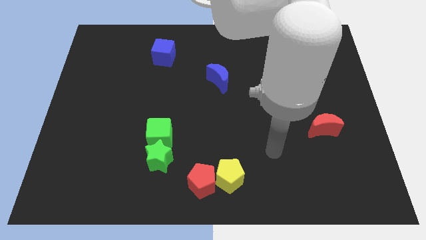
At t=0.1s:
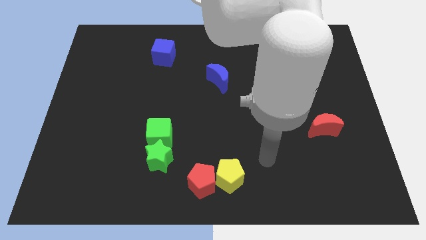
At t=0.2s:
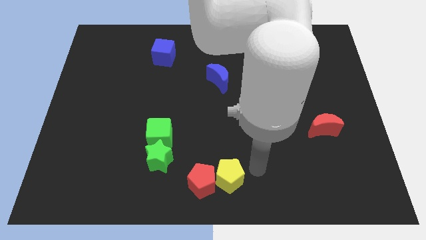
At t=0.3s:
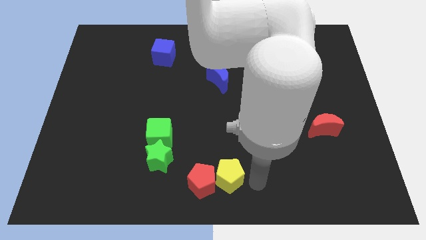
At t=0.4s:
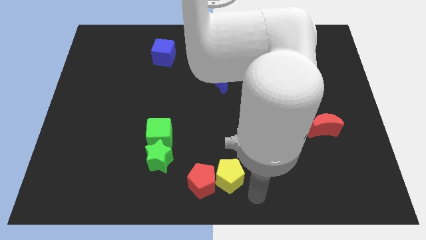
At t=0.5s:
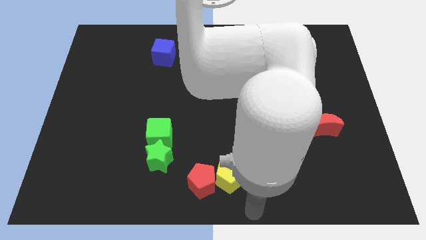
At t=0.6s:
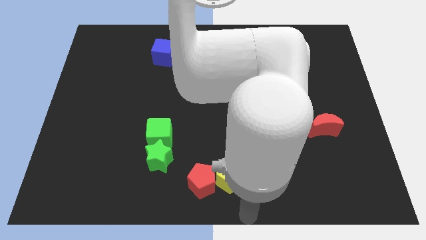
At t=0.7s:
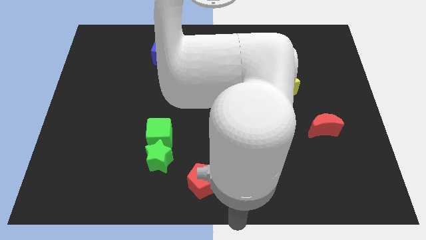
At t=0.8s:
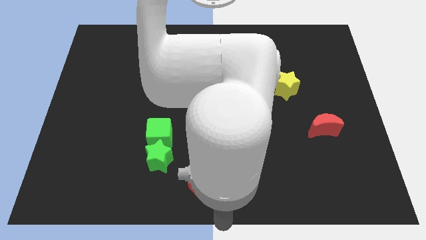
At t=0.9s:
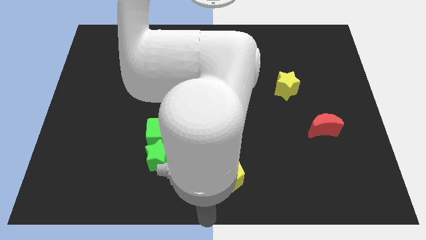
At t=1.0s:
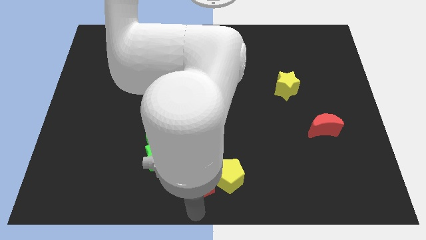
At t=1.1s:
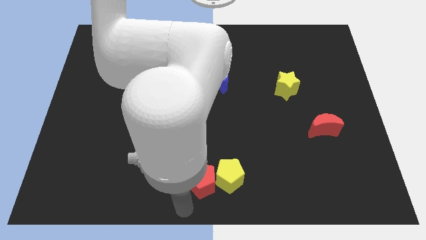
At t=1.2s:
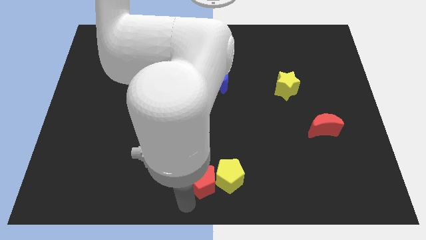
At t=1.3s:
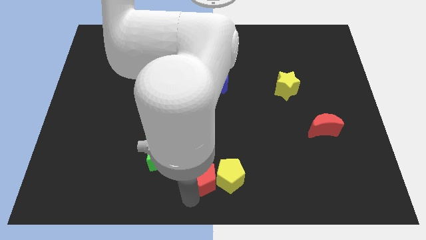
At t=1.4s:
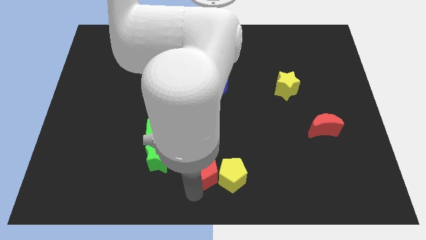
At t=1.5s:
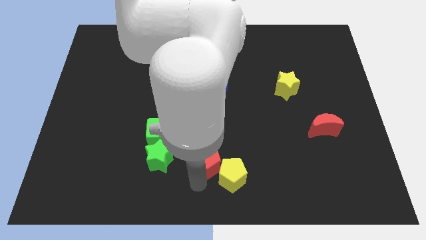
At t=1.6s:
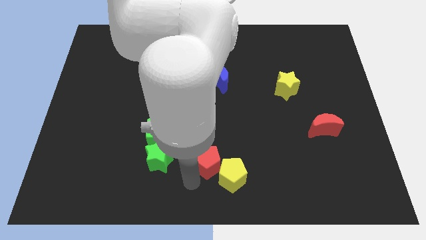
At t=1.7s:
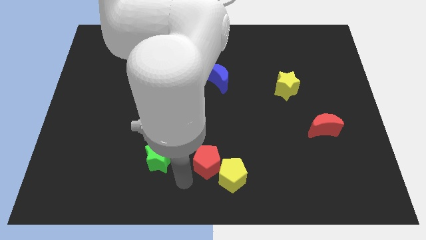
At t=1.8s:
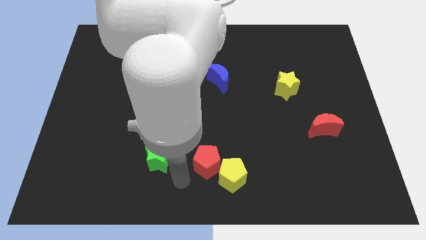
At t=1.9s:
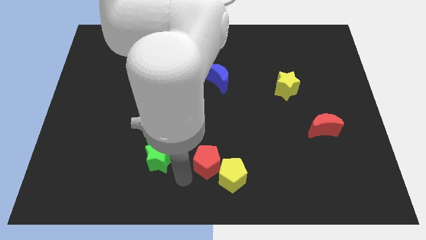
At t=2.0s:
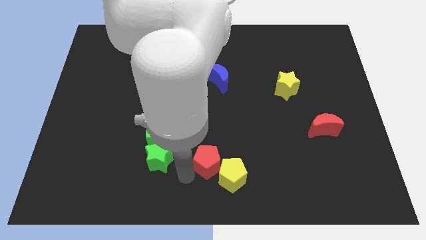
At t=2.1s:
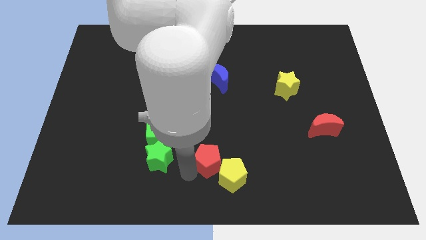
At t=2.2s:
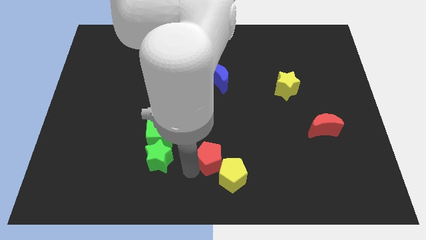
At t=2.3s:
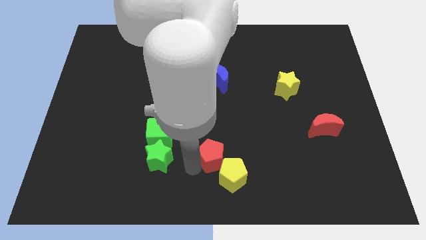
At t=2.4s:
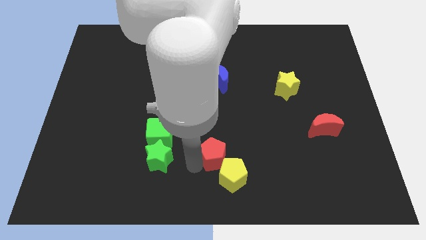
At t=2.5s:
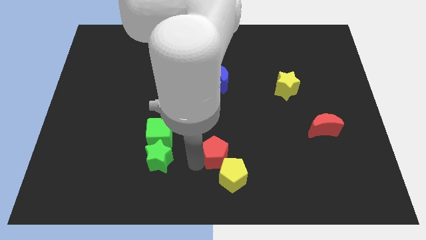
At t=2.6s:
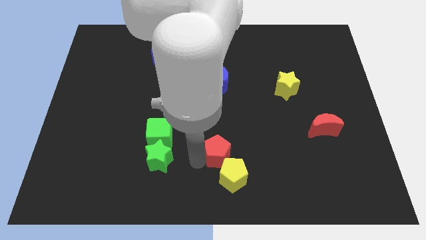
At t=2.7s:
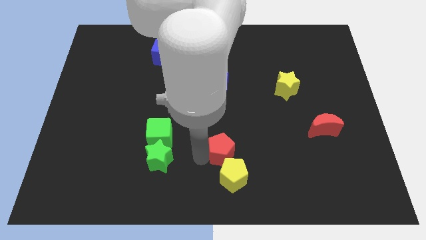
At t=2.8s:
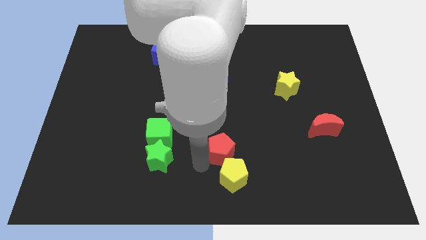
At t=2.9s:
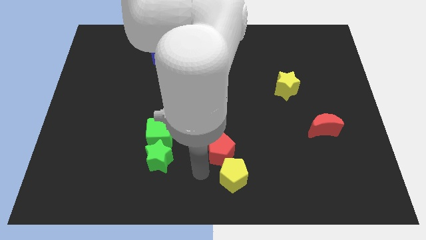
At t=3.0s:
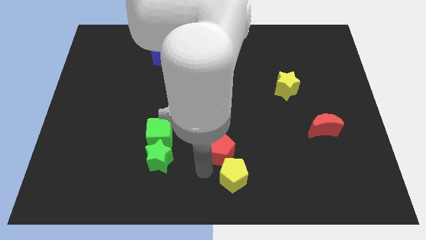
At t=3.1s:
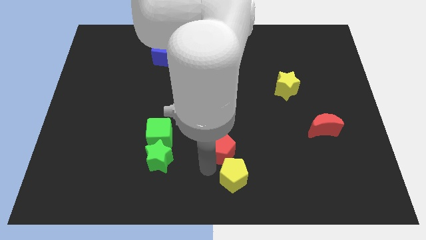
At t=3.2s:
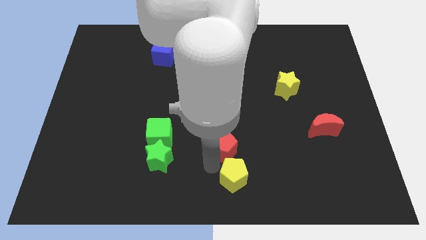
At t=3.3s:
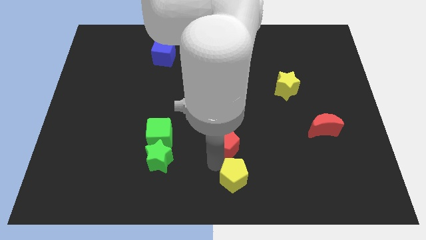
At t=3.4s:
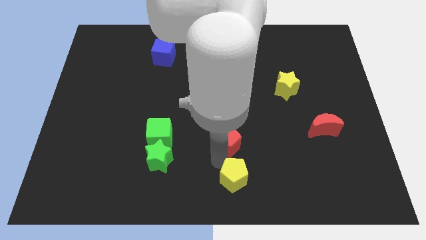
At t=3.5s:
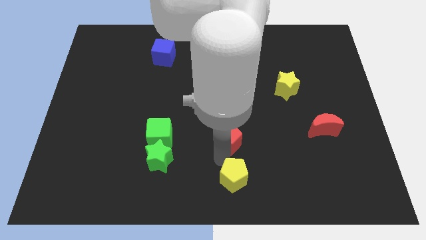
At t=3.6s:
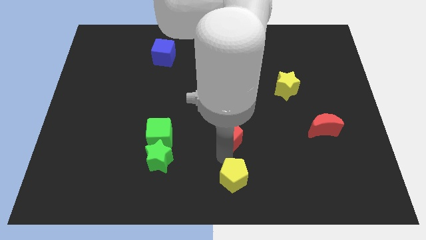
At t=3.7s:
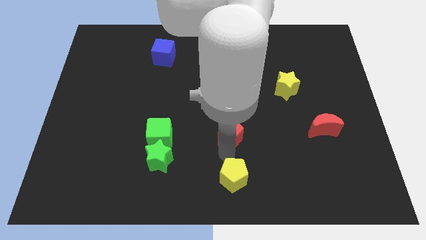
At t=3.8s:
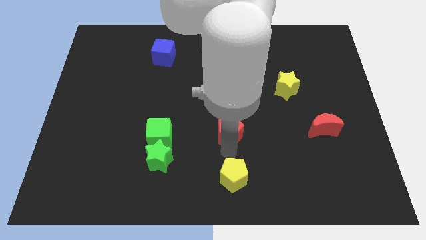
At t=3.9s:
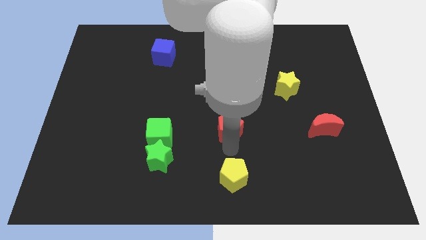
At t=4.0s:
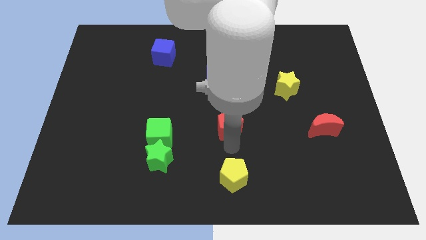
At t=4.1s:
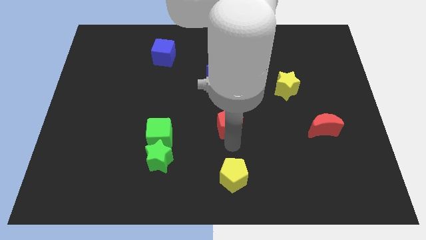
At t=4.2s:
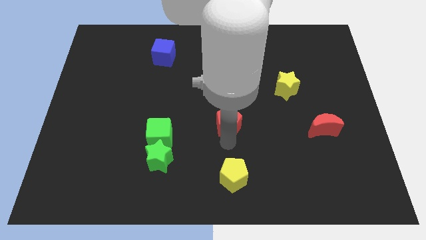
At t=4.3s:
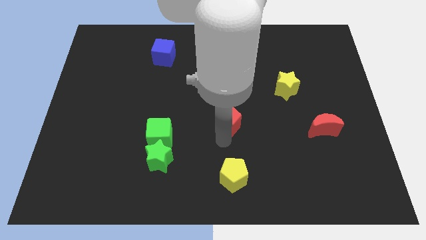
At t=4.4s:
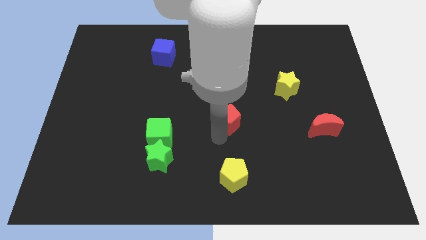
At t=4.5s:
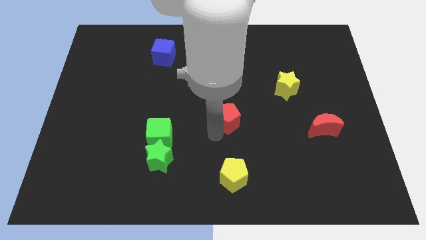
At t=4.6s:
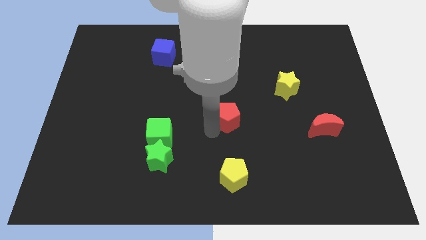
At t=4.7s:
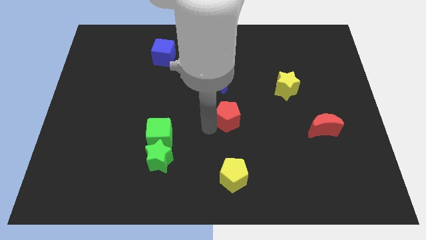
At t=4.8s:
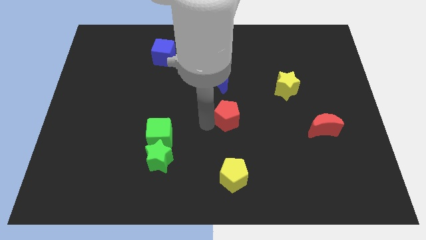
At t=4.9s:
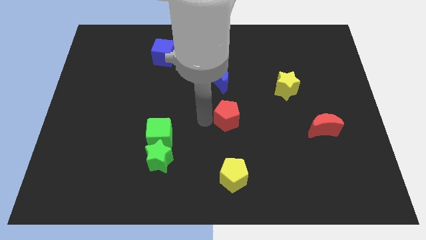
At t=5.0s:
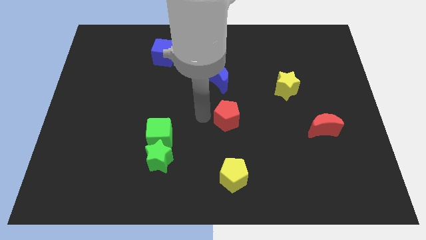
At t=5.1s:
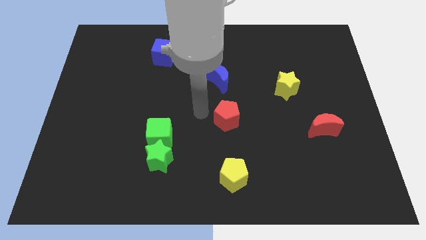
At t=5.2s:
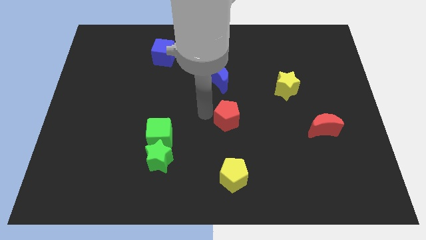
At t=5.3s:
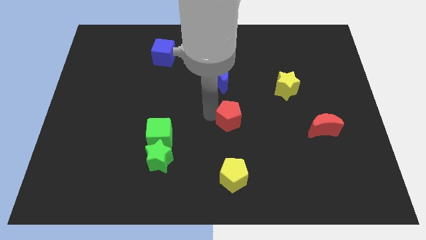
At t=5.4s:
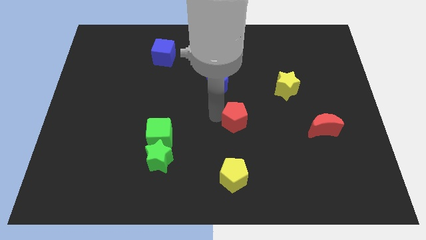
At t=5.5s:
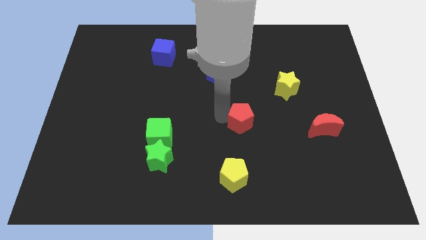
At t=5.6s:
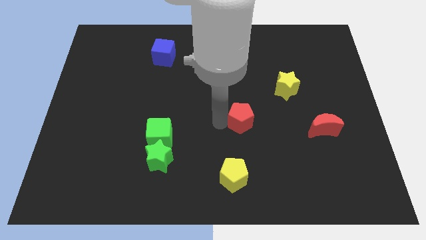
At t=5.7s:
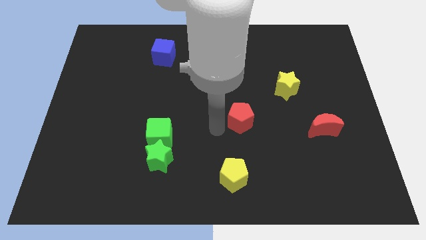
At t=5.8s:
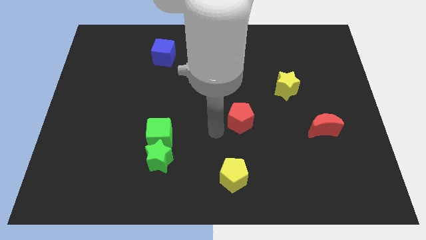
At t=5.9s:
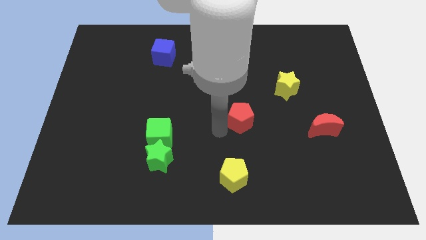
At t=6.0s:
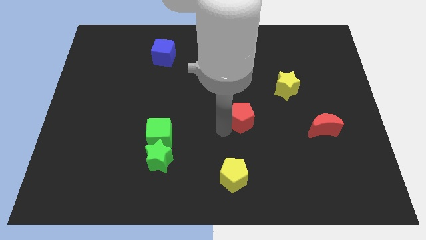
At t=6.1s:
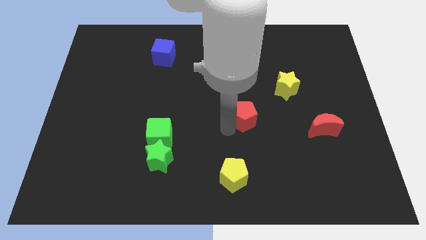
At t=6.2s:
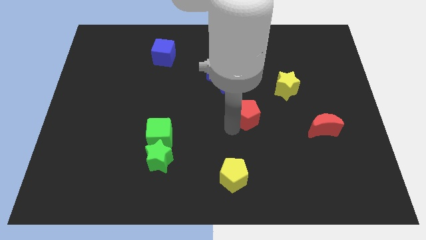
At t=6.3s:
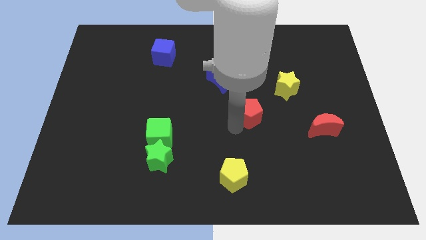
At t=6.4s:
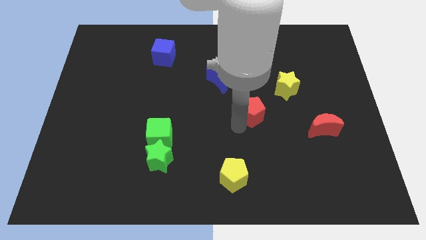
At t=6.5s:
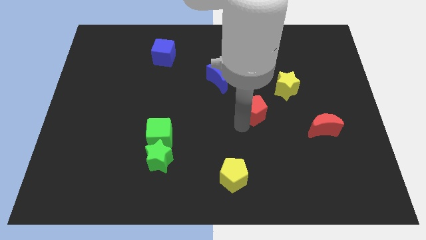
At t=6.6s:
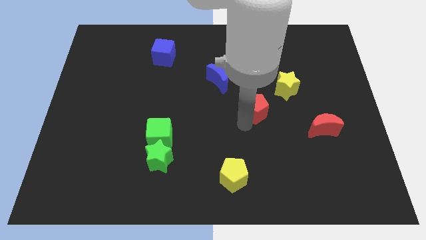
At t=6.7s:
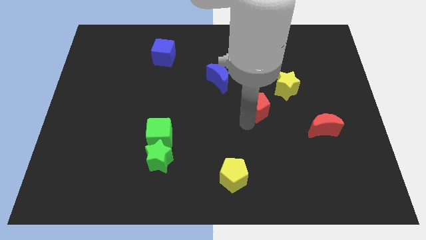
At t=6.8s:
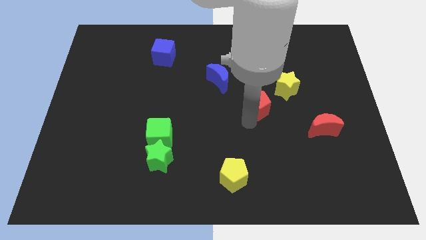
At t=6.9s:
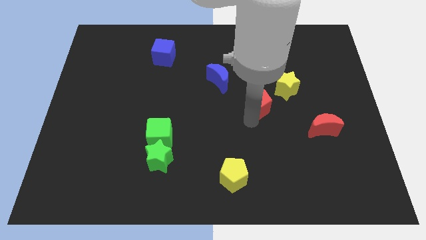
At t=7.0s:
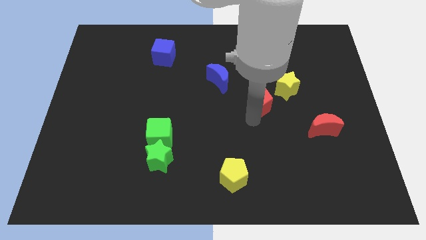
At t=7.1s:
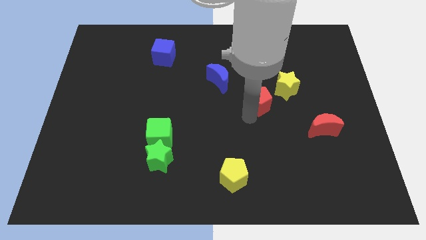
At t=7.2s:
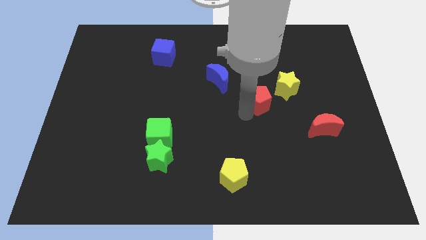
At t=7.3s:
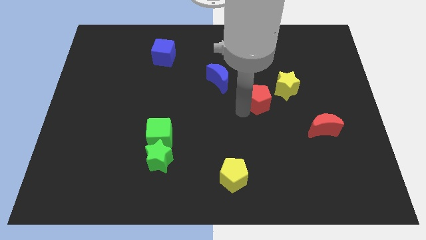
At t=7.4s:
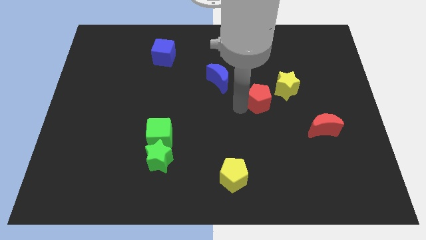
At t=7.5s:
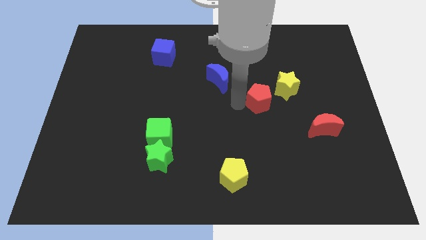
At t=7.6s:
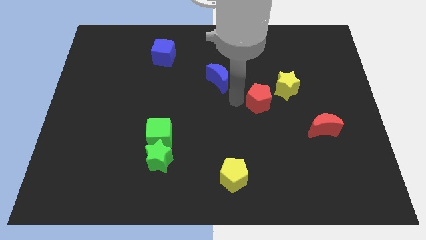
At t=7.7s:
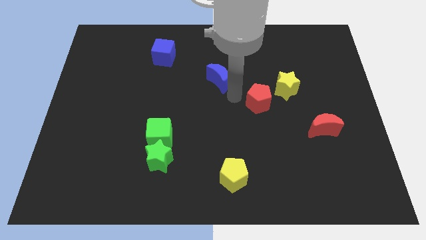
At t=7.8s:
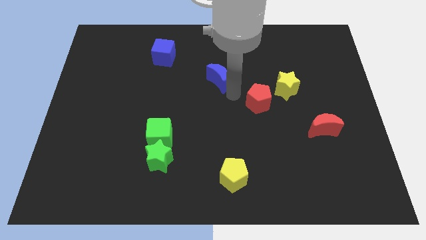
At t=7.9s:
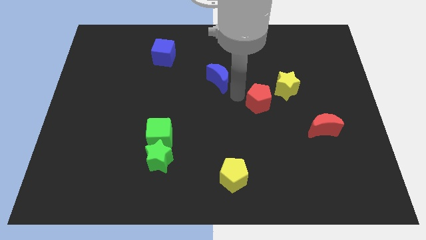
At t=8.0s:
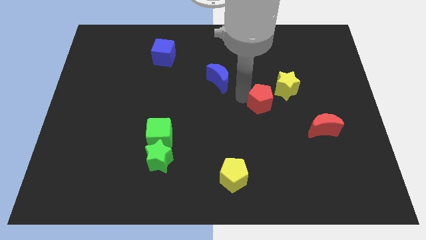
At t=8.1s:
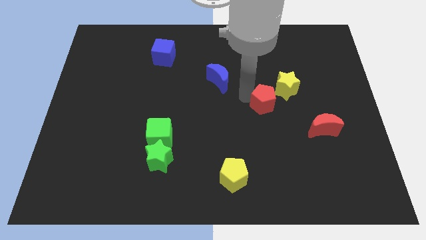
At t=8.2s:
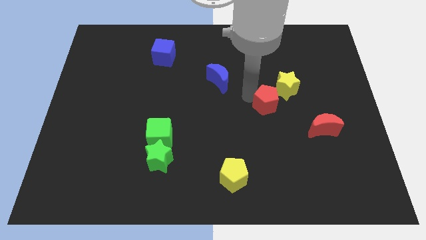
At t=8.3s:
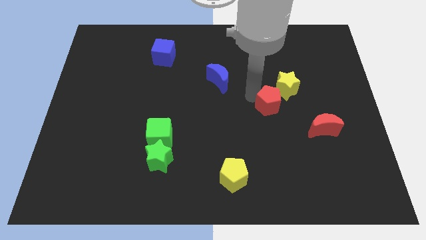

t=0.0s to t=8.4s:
move the red pentagon close to the yellow star
